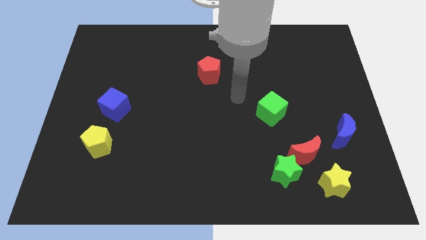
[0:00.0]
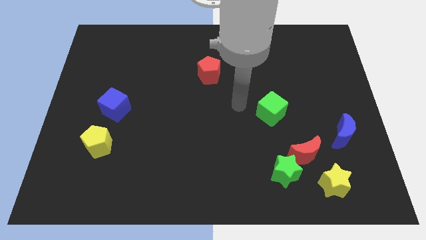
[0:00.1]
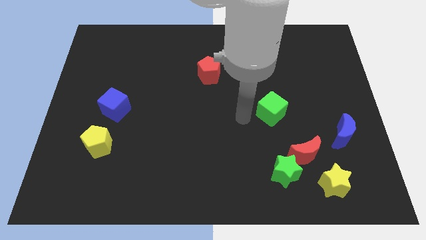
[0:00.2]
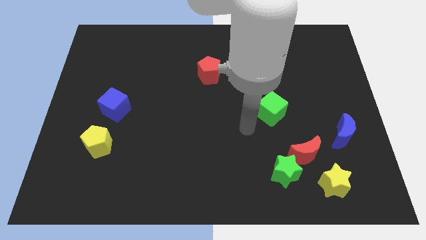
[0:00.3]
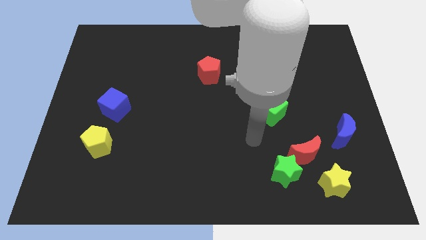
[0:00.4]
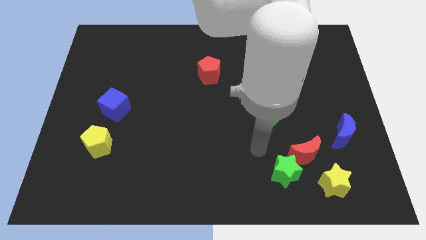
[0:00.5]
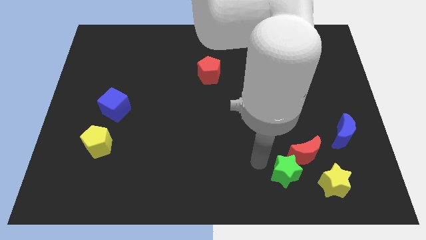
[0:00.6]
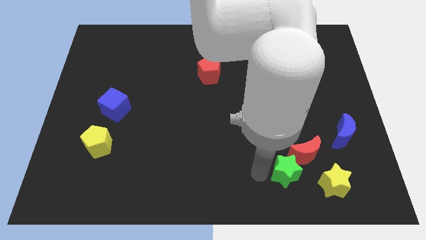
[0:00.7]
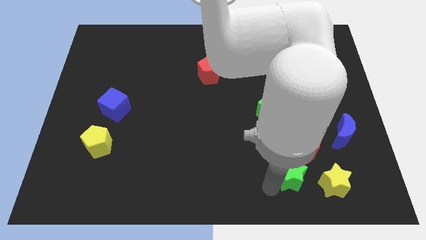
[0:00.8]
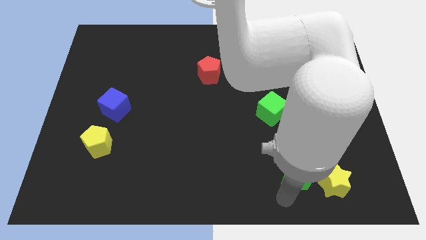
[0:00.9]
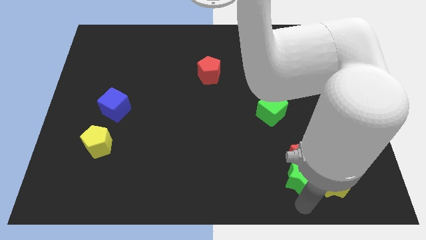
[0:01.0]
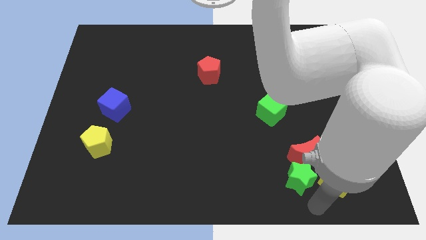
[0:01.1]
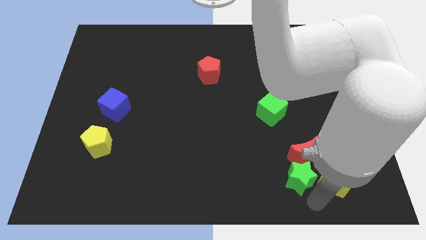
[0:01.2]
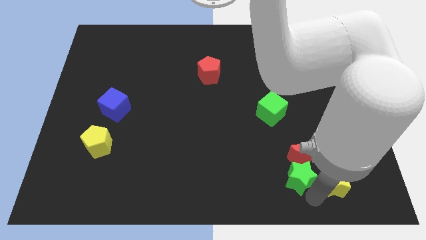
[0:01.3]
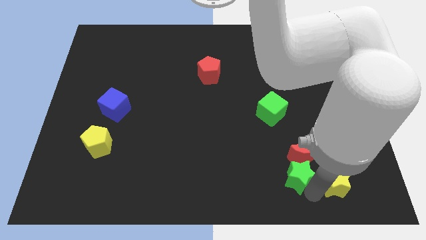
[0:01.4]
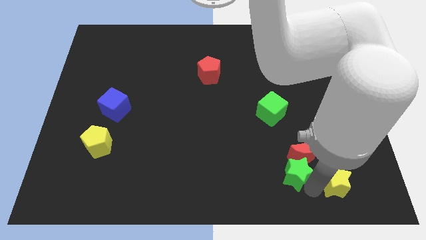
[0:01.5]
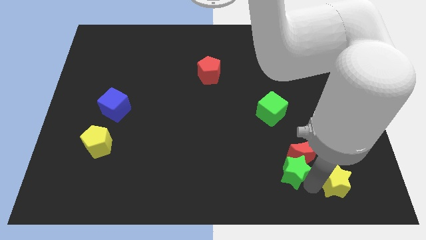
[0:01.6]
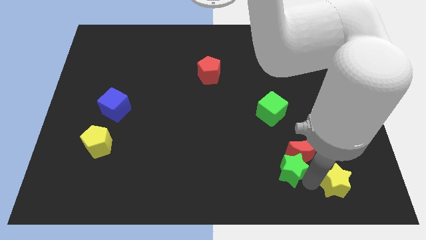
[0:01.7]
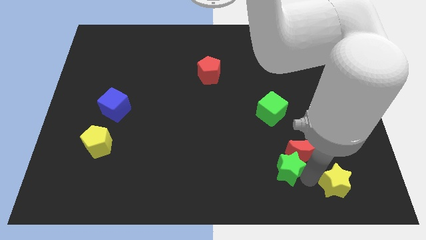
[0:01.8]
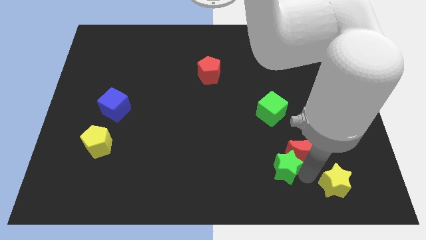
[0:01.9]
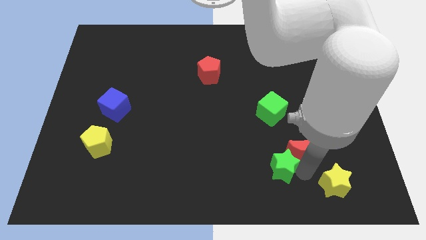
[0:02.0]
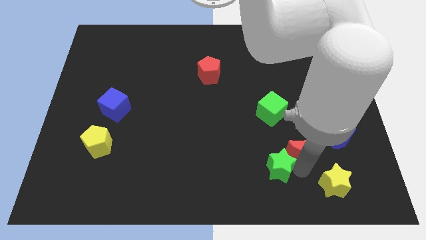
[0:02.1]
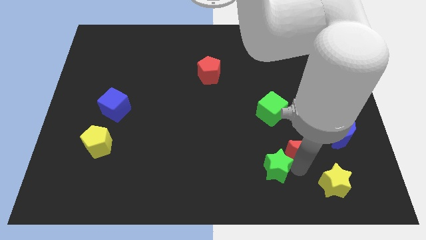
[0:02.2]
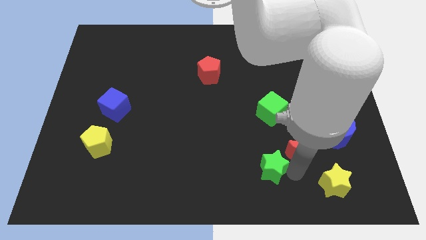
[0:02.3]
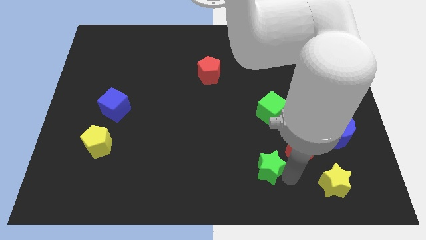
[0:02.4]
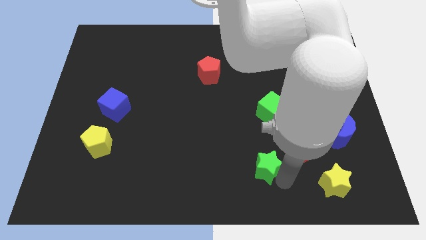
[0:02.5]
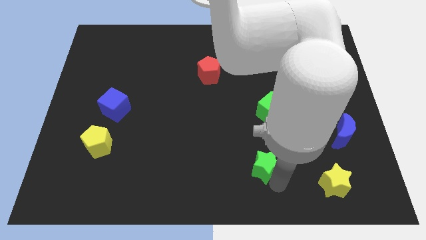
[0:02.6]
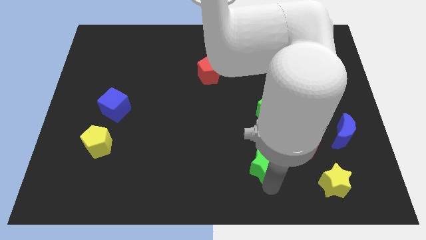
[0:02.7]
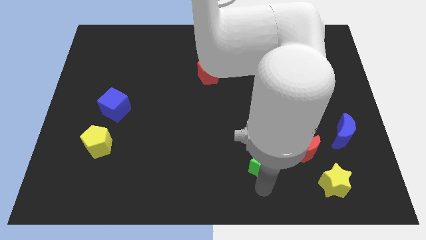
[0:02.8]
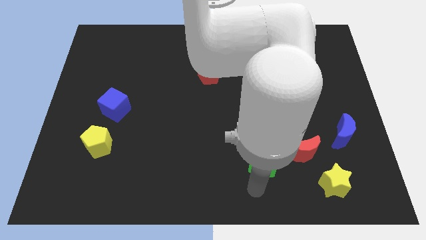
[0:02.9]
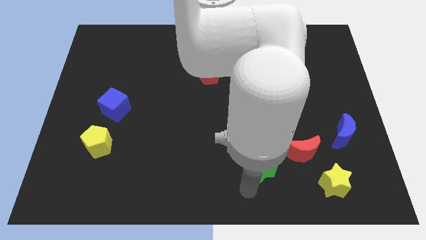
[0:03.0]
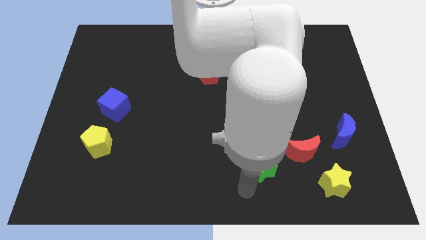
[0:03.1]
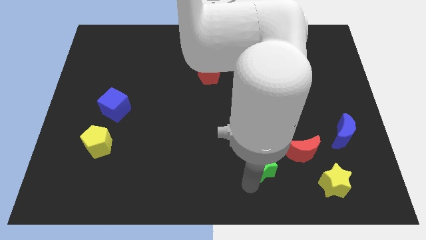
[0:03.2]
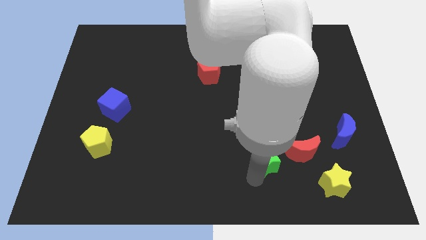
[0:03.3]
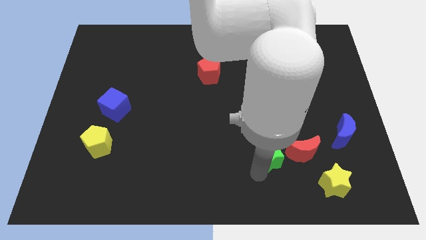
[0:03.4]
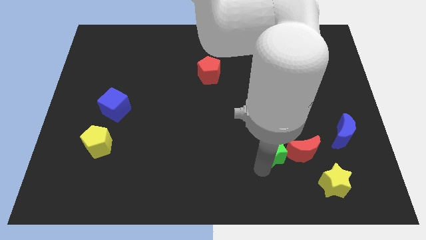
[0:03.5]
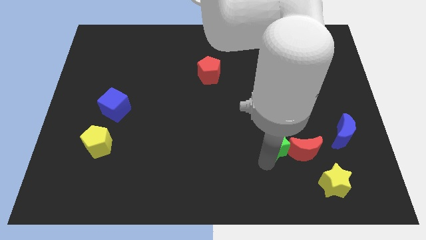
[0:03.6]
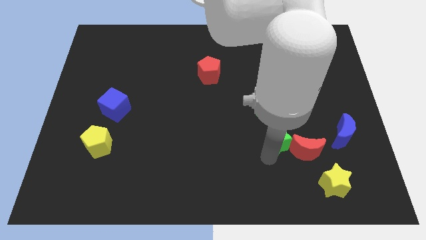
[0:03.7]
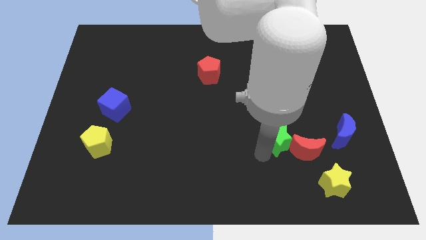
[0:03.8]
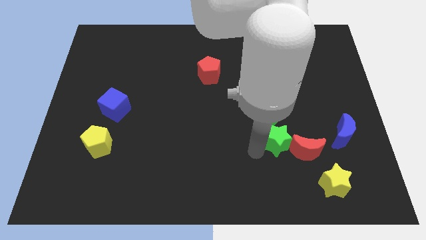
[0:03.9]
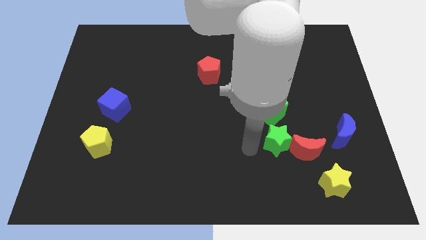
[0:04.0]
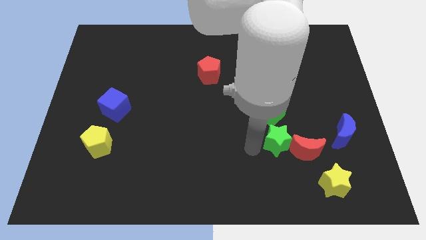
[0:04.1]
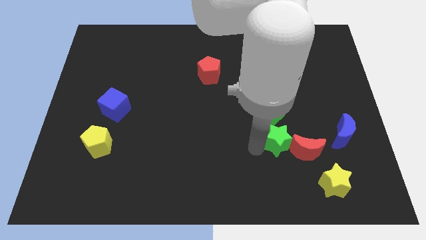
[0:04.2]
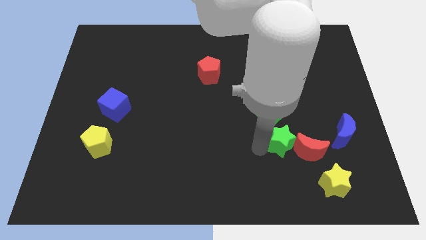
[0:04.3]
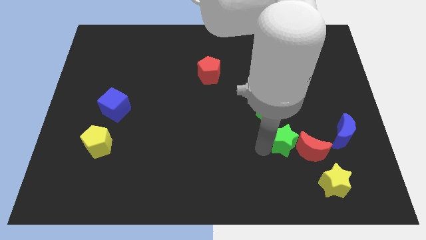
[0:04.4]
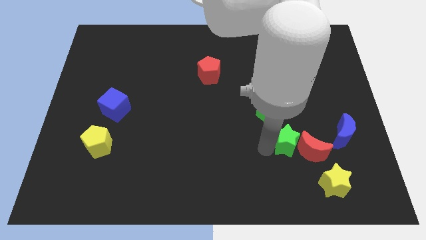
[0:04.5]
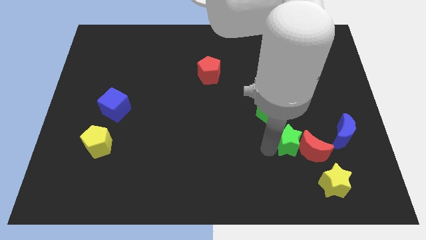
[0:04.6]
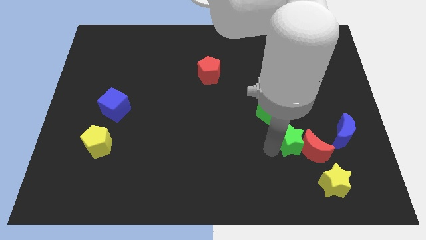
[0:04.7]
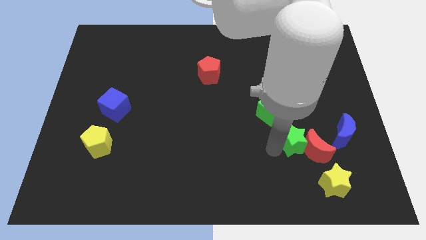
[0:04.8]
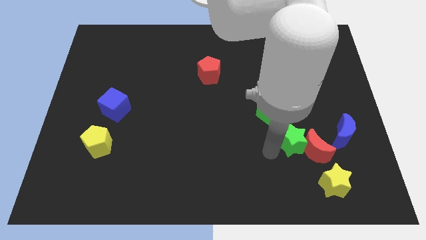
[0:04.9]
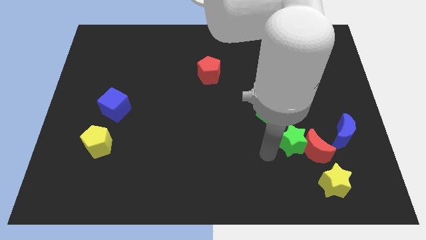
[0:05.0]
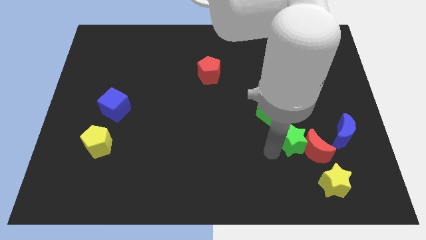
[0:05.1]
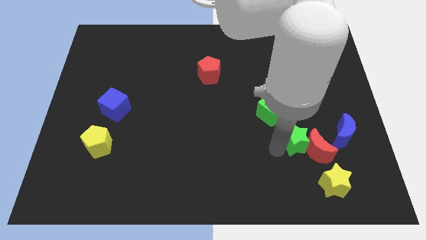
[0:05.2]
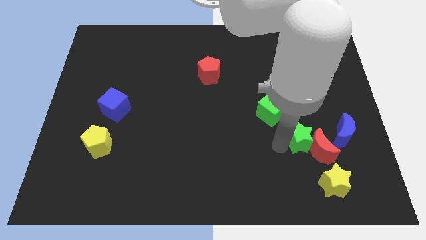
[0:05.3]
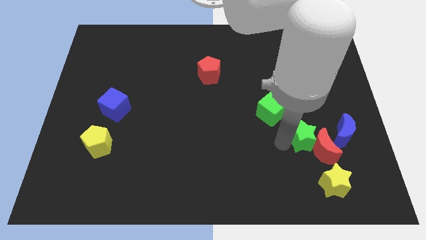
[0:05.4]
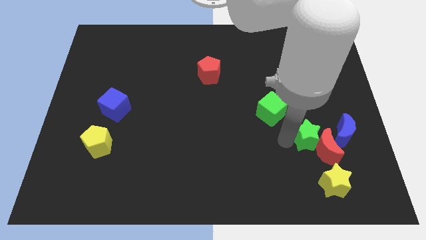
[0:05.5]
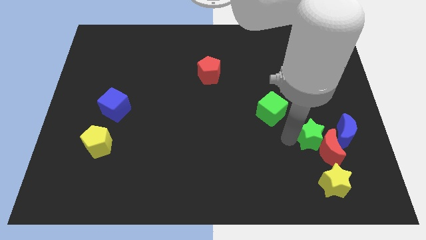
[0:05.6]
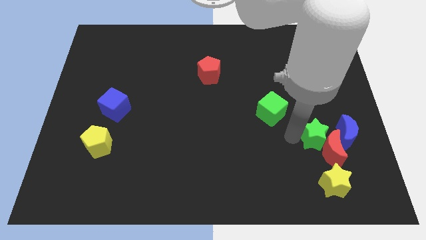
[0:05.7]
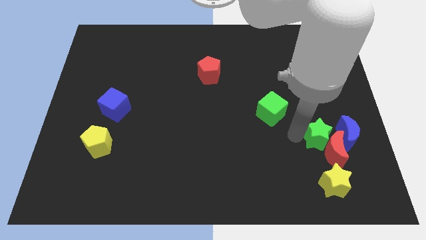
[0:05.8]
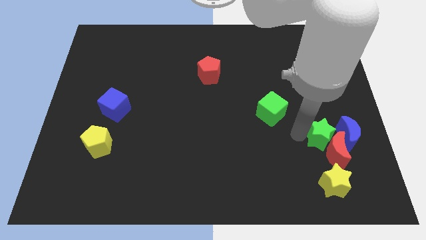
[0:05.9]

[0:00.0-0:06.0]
push the green star close to the blue moon

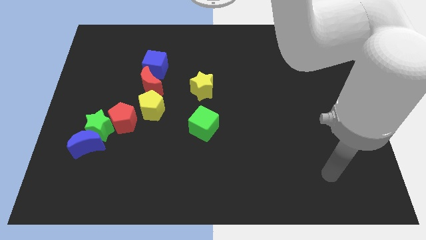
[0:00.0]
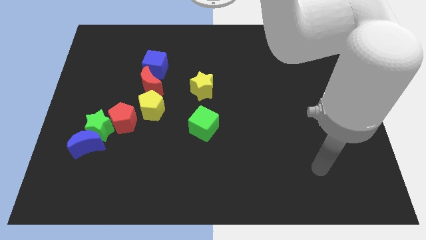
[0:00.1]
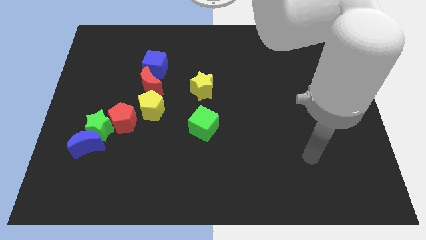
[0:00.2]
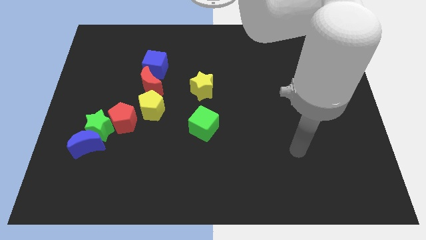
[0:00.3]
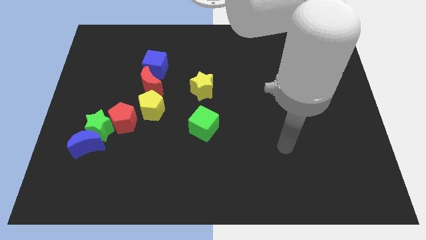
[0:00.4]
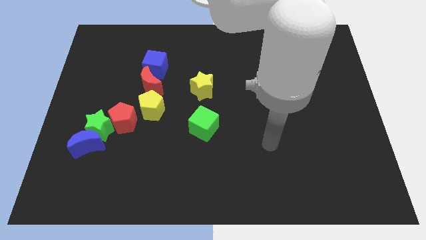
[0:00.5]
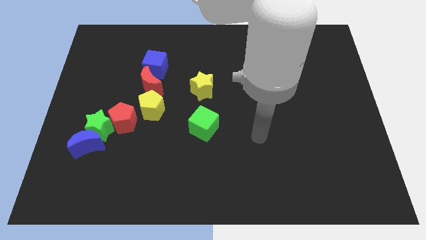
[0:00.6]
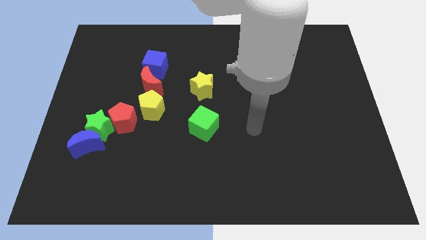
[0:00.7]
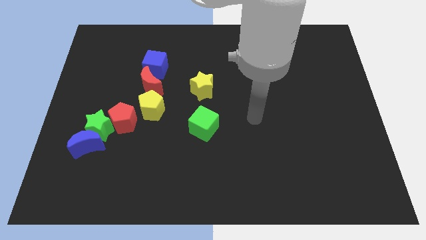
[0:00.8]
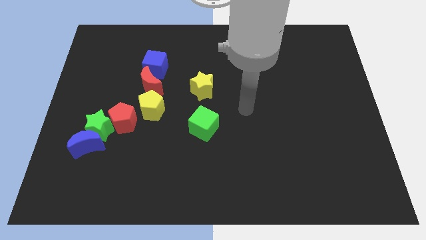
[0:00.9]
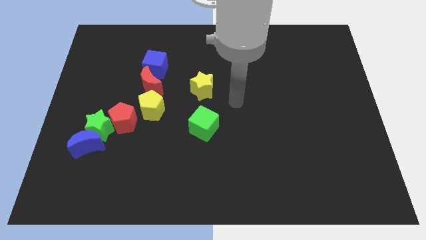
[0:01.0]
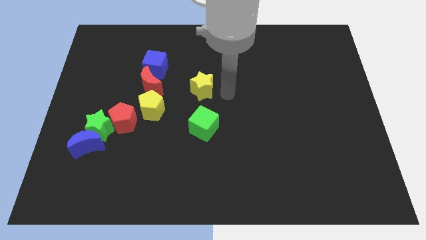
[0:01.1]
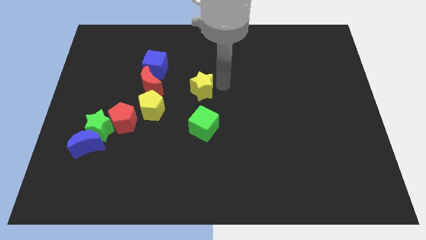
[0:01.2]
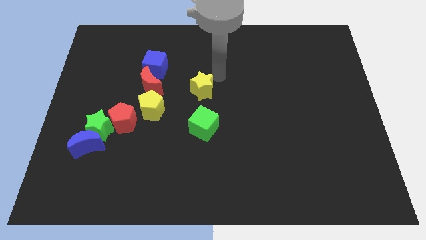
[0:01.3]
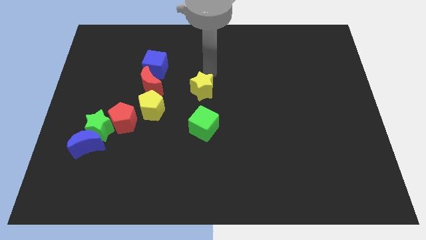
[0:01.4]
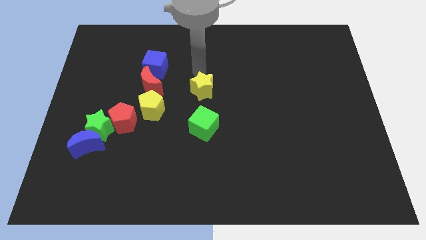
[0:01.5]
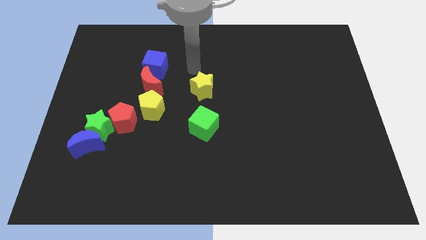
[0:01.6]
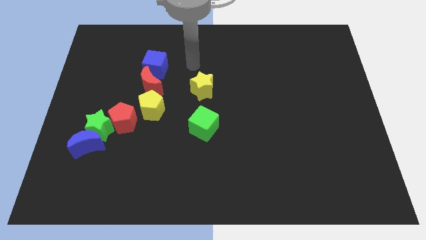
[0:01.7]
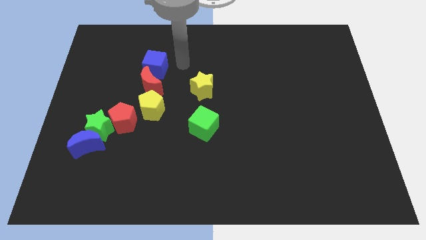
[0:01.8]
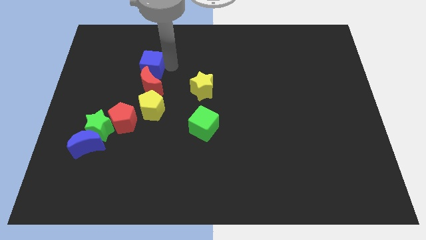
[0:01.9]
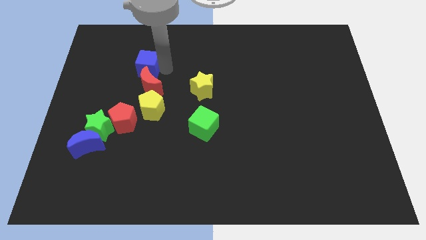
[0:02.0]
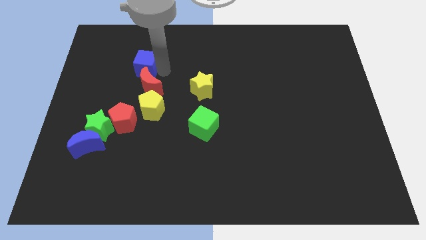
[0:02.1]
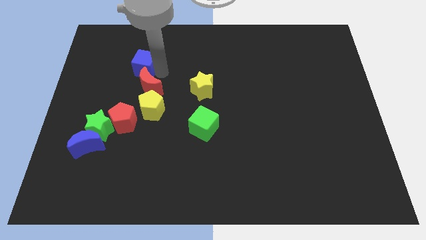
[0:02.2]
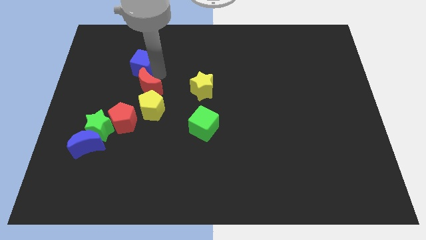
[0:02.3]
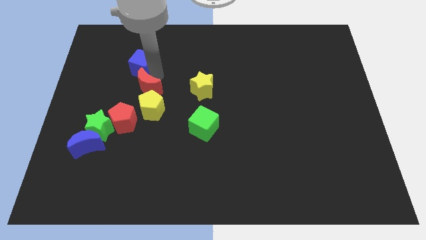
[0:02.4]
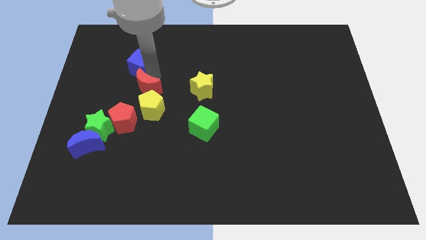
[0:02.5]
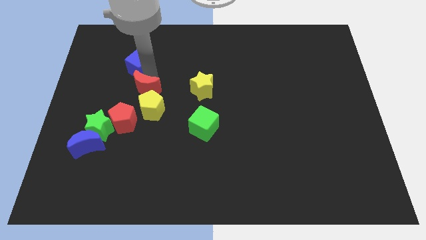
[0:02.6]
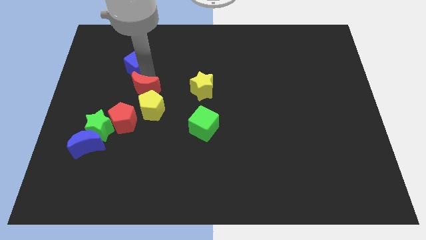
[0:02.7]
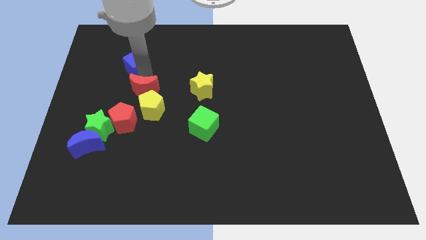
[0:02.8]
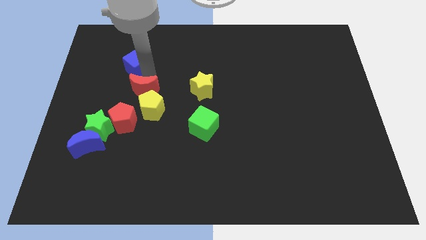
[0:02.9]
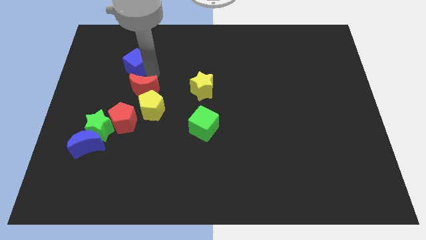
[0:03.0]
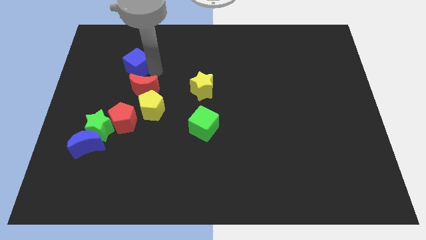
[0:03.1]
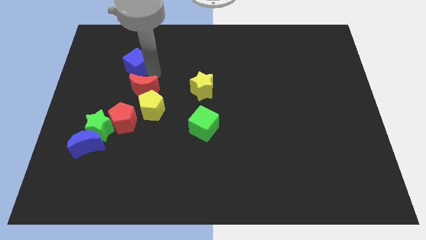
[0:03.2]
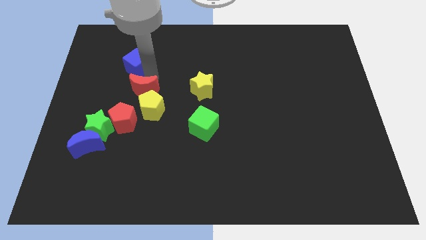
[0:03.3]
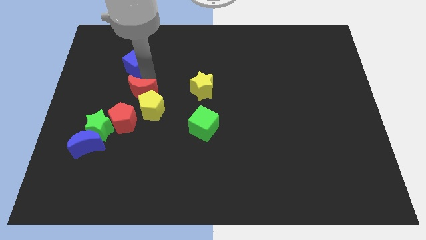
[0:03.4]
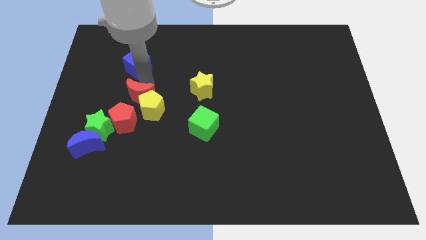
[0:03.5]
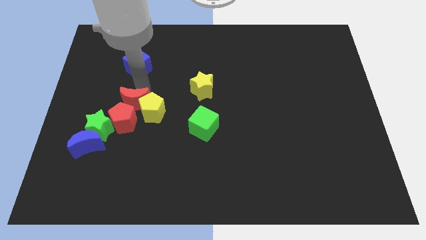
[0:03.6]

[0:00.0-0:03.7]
slide the red moon next to the red pentagon
